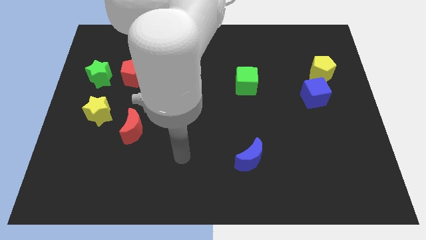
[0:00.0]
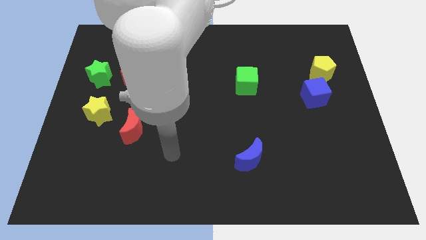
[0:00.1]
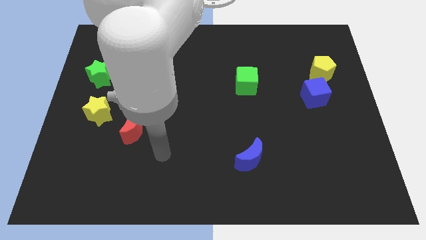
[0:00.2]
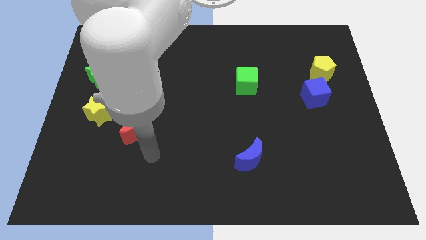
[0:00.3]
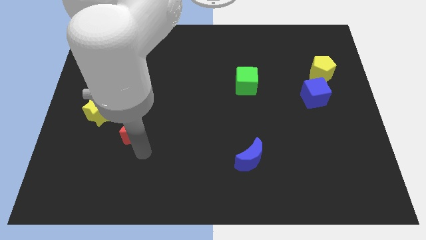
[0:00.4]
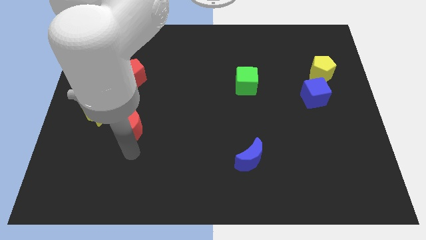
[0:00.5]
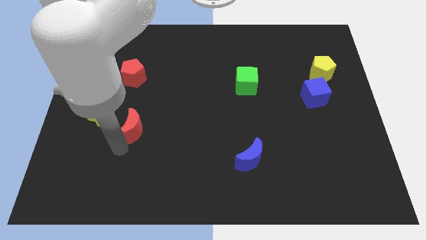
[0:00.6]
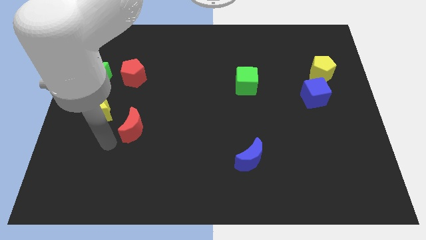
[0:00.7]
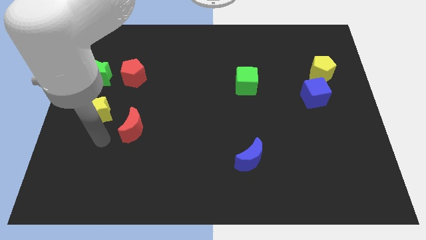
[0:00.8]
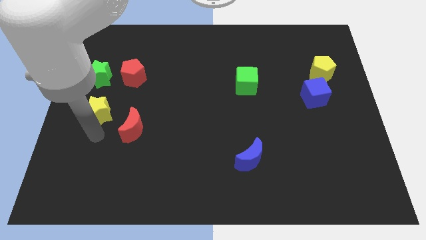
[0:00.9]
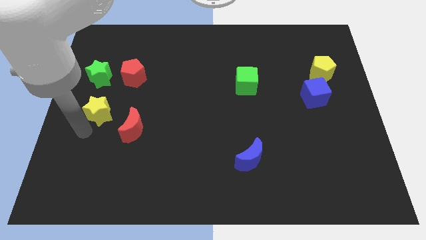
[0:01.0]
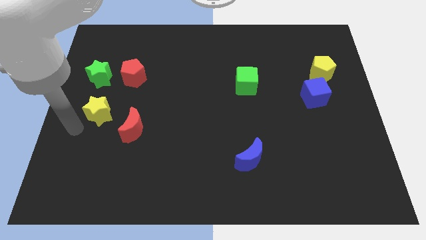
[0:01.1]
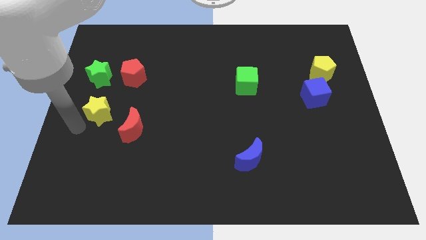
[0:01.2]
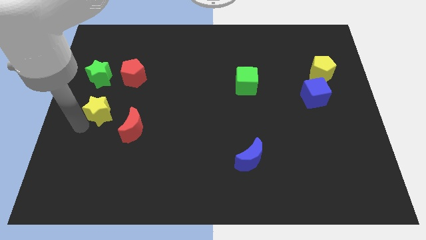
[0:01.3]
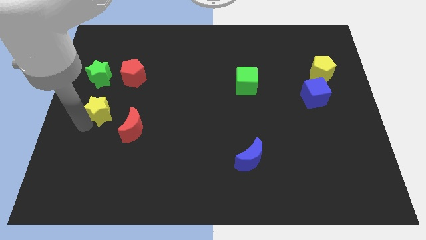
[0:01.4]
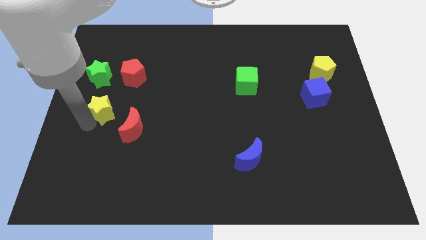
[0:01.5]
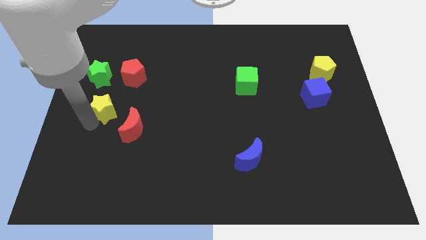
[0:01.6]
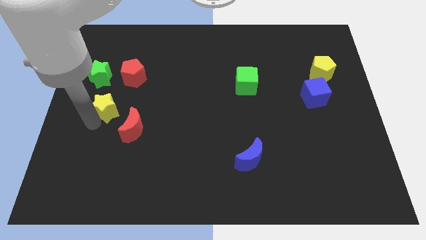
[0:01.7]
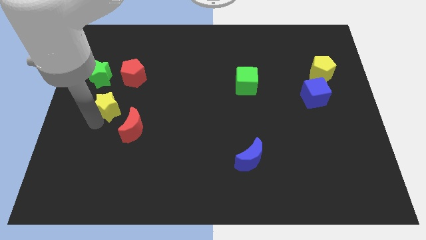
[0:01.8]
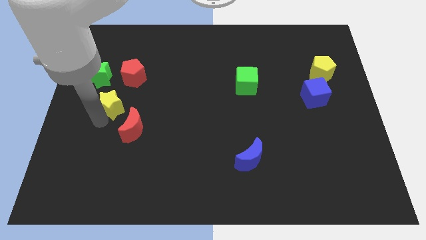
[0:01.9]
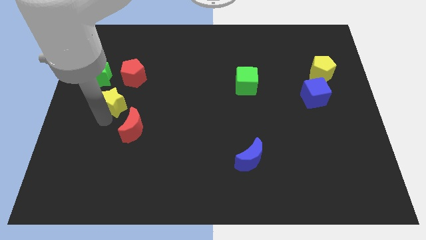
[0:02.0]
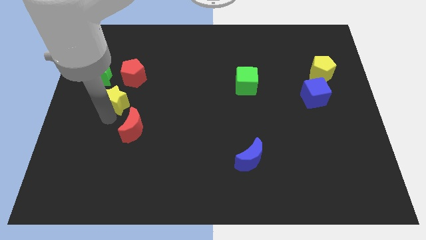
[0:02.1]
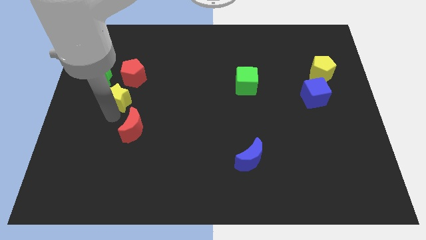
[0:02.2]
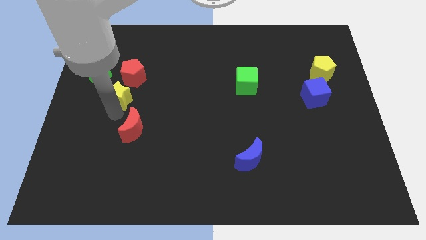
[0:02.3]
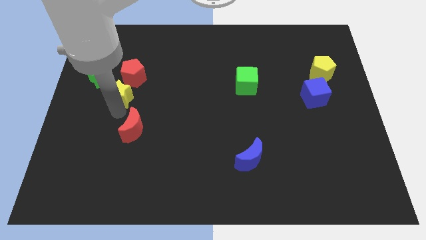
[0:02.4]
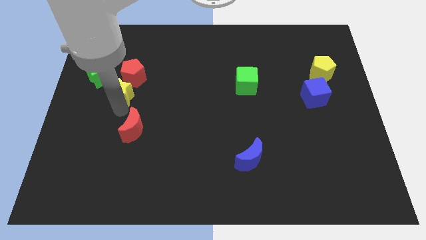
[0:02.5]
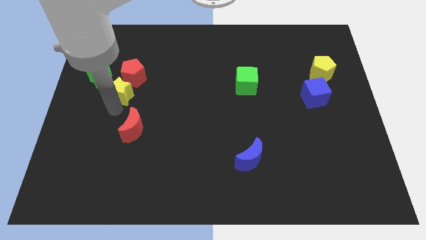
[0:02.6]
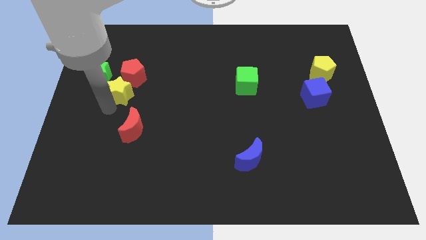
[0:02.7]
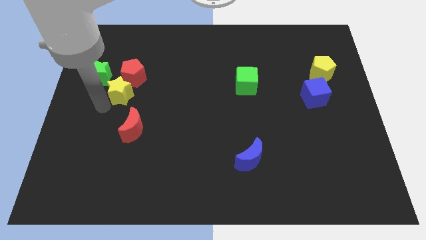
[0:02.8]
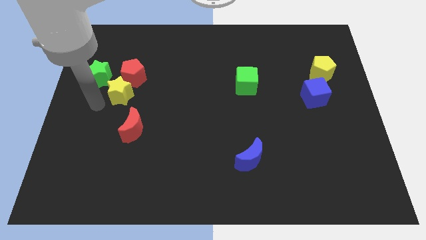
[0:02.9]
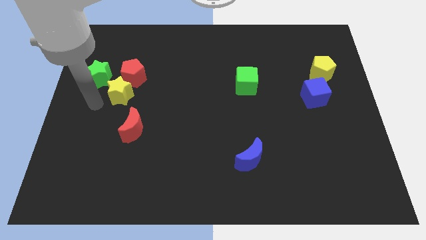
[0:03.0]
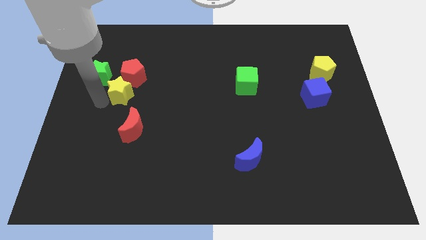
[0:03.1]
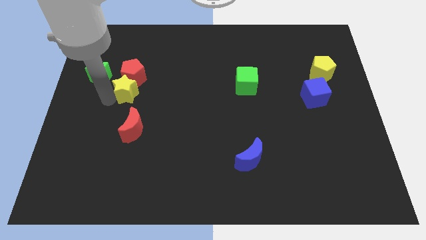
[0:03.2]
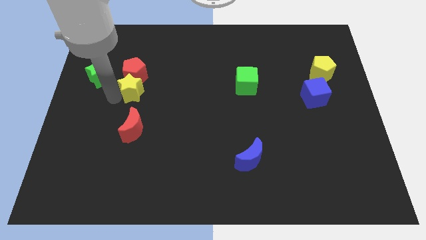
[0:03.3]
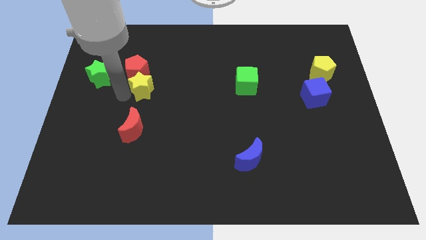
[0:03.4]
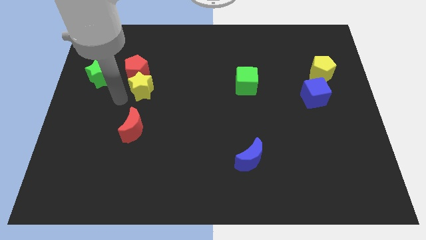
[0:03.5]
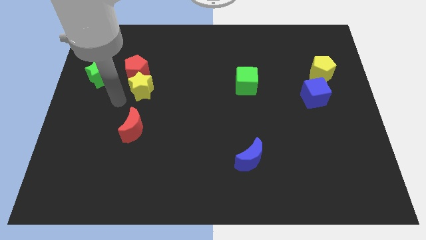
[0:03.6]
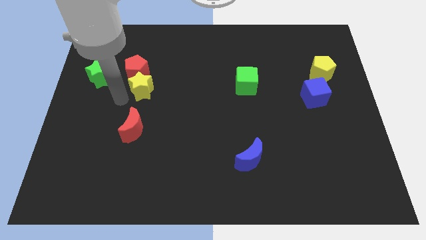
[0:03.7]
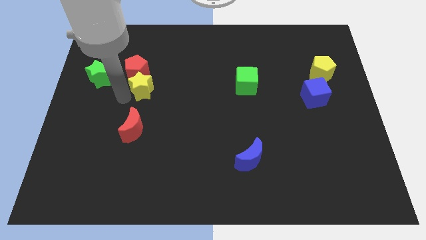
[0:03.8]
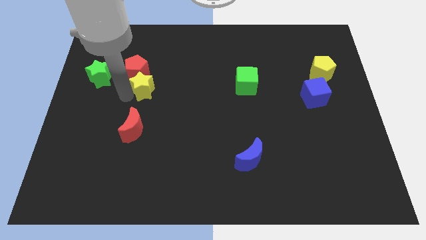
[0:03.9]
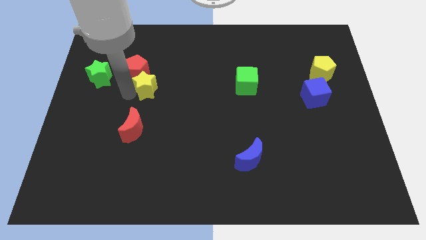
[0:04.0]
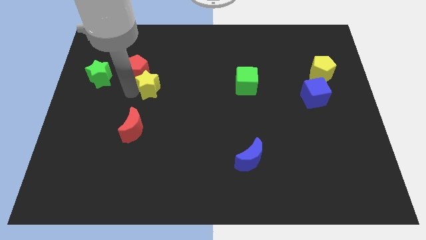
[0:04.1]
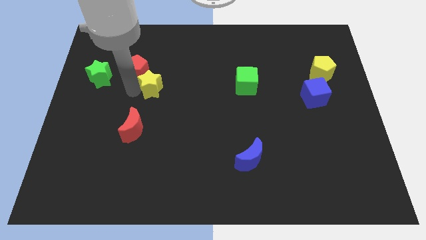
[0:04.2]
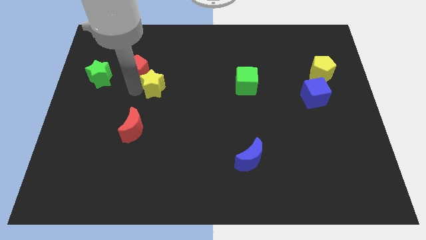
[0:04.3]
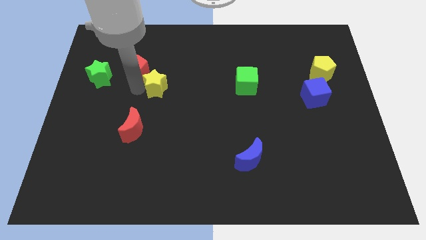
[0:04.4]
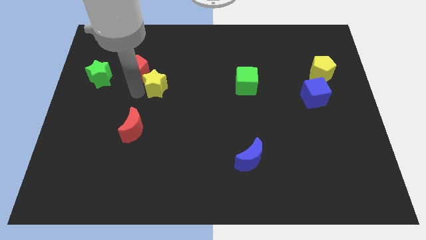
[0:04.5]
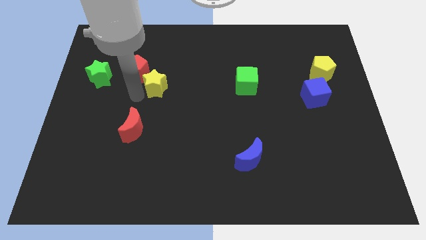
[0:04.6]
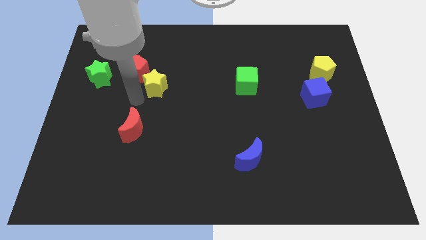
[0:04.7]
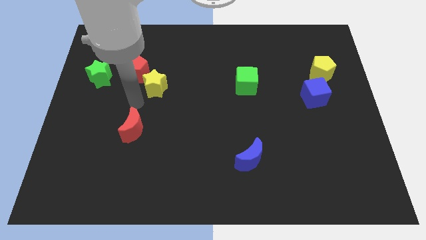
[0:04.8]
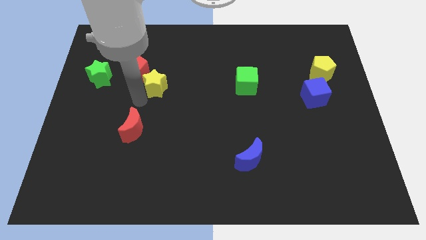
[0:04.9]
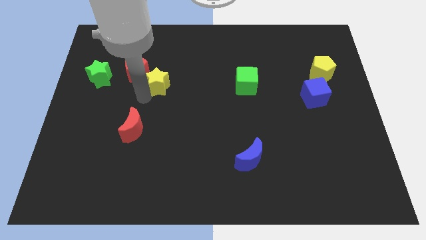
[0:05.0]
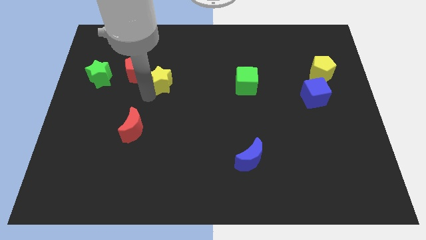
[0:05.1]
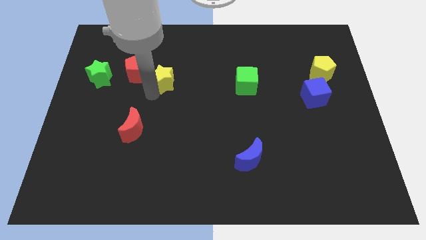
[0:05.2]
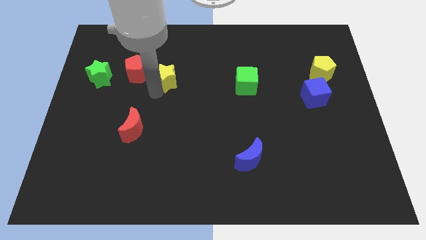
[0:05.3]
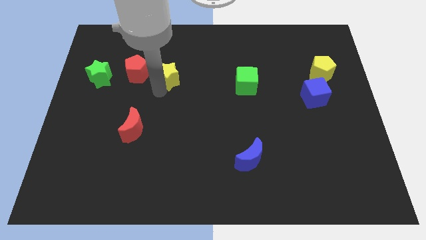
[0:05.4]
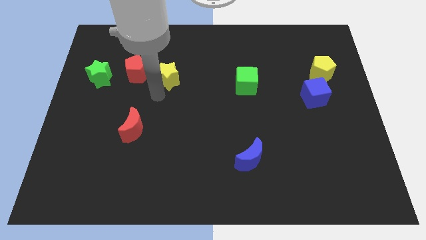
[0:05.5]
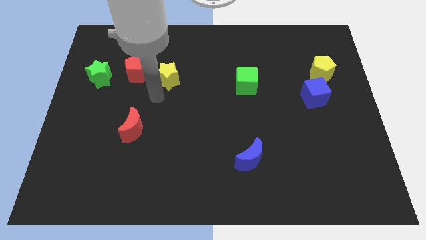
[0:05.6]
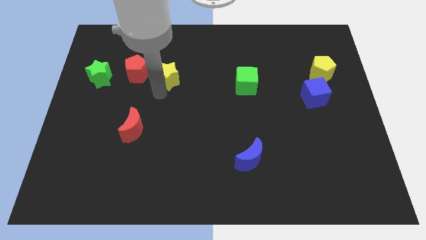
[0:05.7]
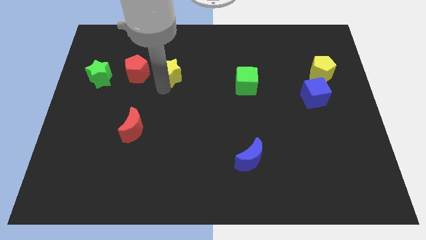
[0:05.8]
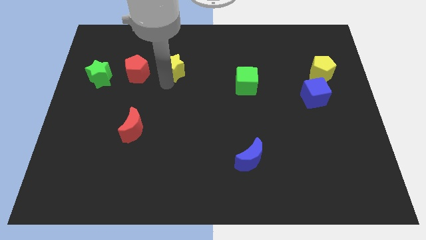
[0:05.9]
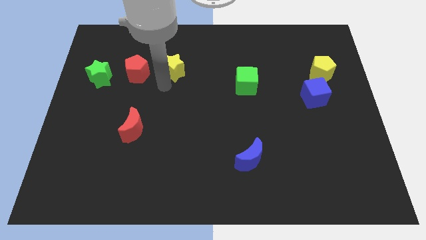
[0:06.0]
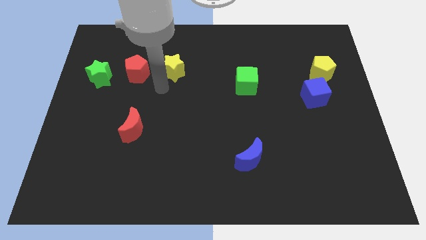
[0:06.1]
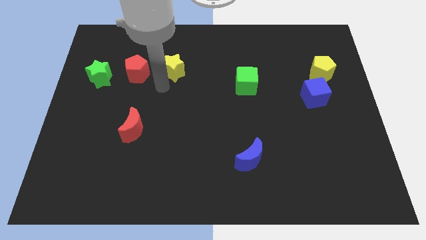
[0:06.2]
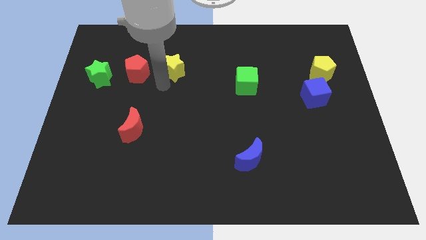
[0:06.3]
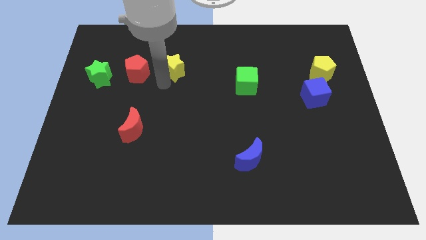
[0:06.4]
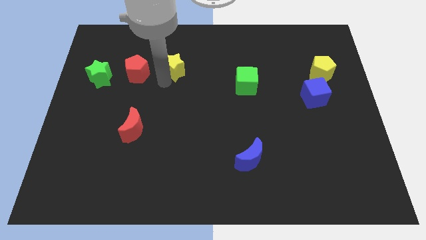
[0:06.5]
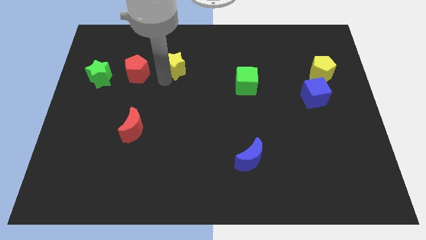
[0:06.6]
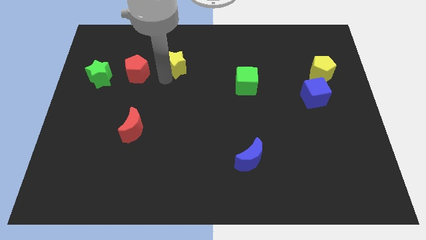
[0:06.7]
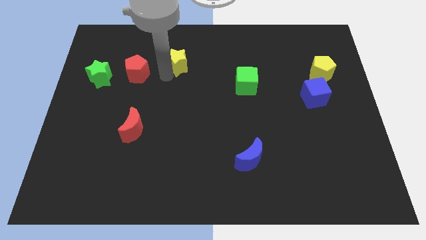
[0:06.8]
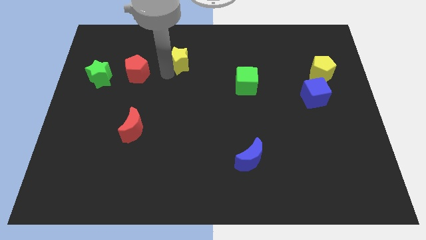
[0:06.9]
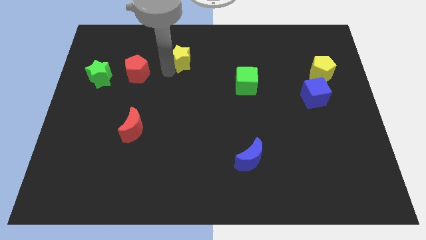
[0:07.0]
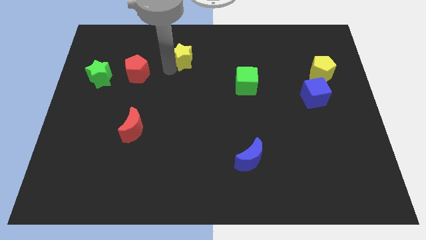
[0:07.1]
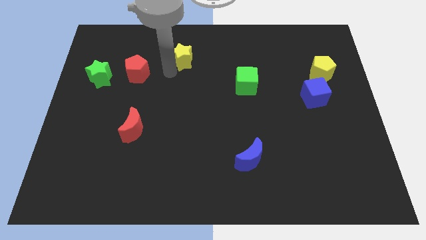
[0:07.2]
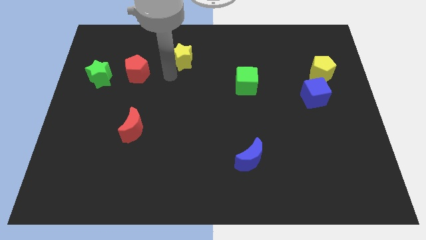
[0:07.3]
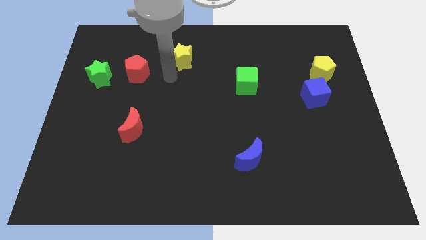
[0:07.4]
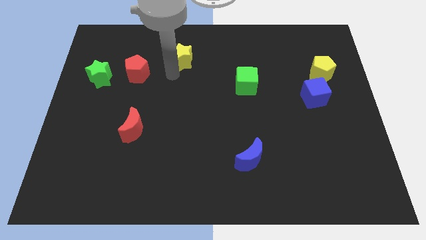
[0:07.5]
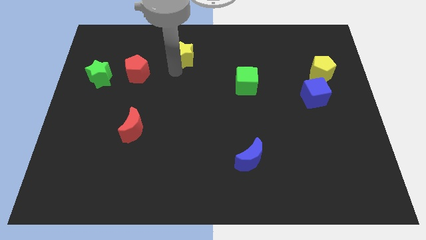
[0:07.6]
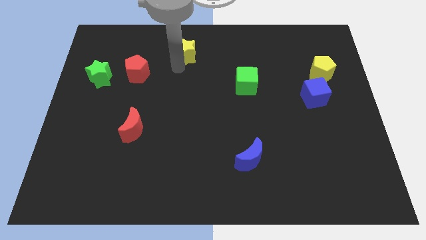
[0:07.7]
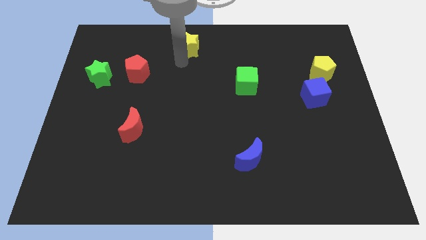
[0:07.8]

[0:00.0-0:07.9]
push the yellow star to the top side
